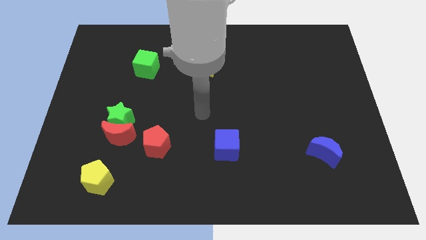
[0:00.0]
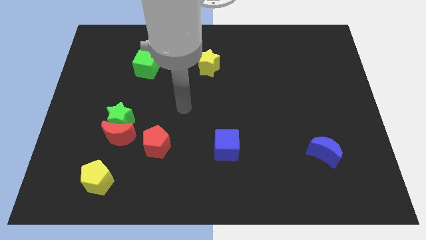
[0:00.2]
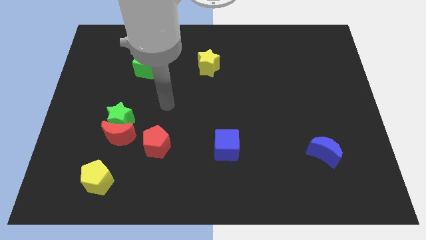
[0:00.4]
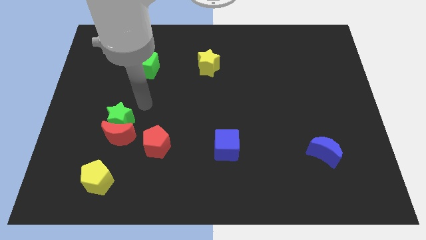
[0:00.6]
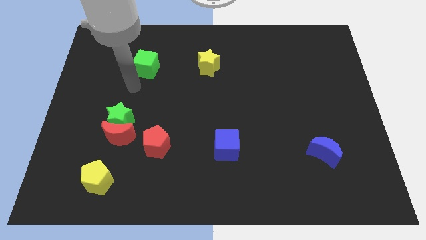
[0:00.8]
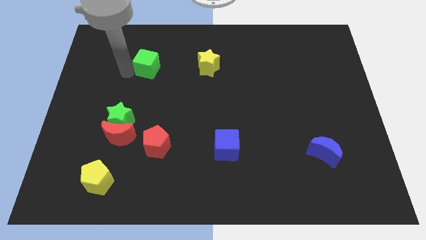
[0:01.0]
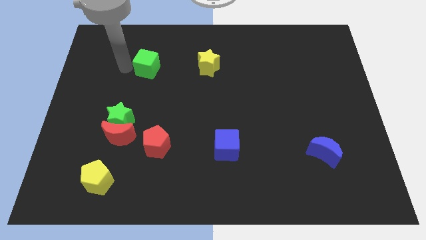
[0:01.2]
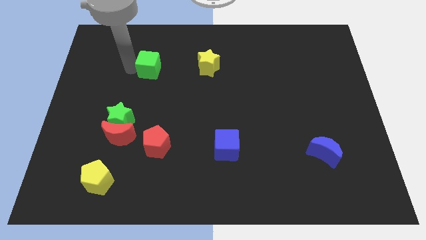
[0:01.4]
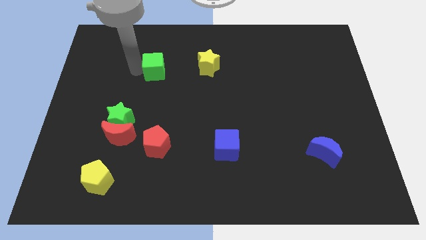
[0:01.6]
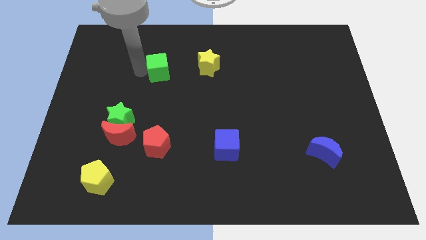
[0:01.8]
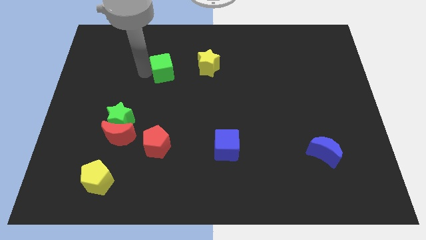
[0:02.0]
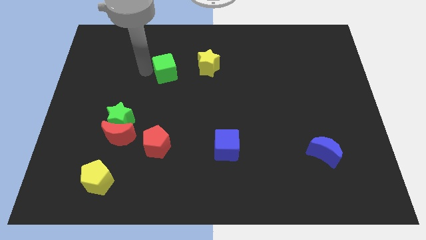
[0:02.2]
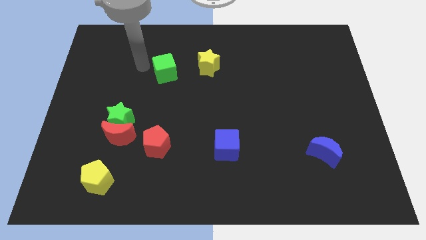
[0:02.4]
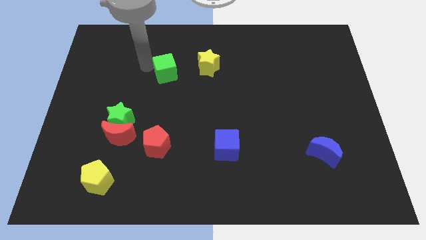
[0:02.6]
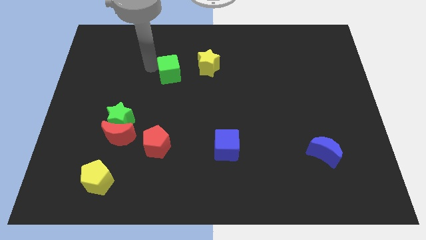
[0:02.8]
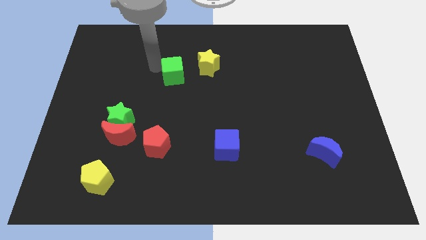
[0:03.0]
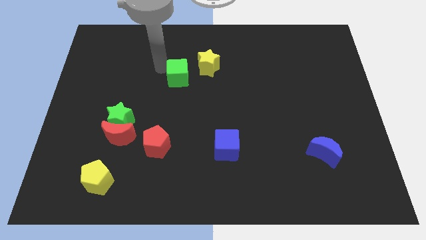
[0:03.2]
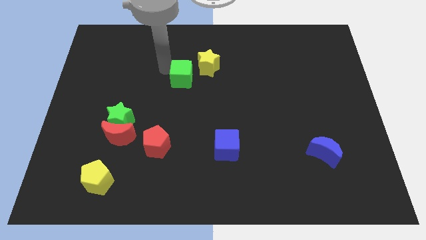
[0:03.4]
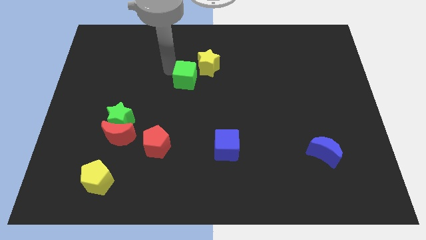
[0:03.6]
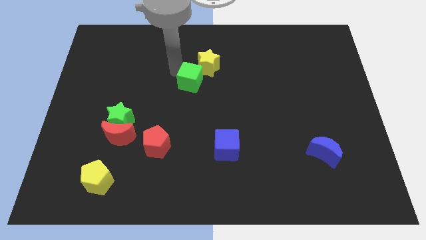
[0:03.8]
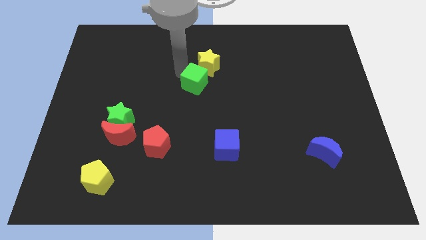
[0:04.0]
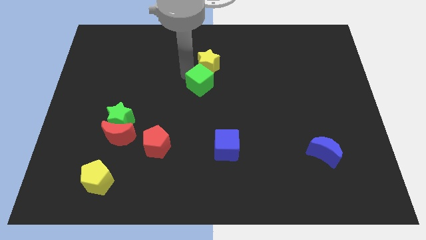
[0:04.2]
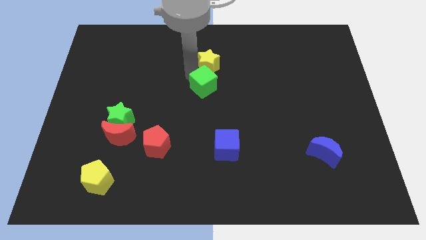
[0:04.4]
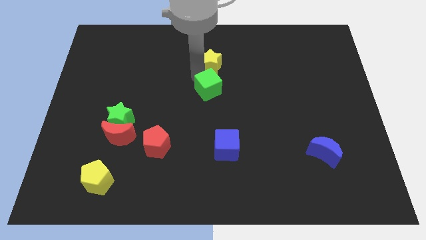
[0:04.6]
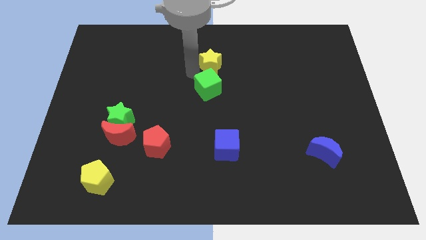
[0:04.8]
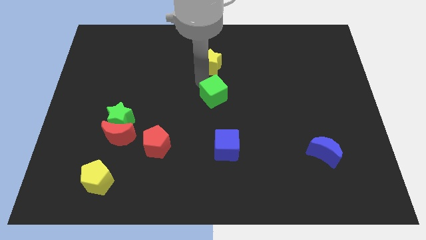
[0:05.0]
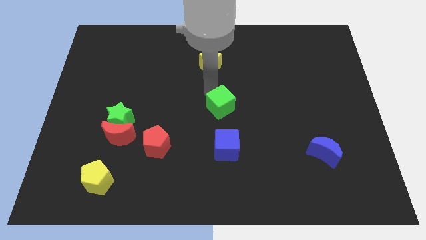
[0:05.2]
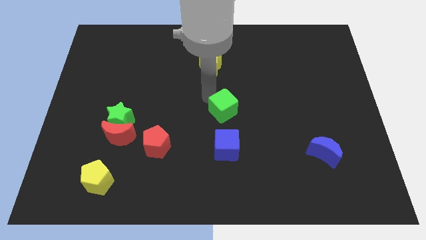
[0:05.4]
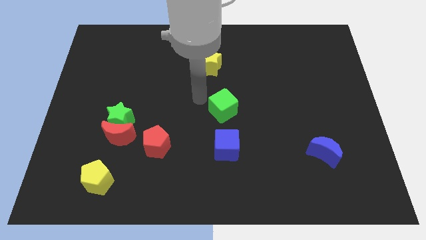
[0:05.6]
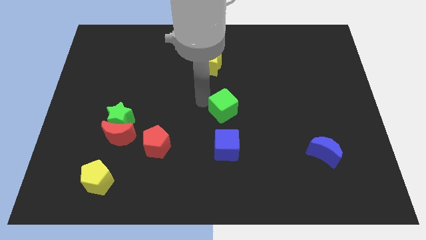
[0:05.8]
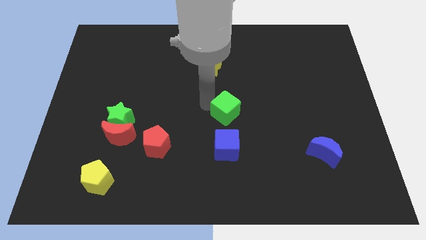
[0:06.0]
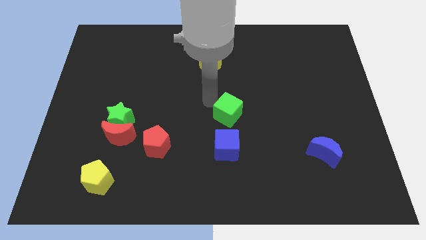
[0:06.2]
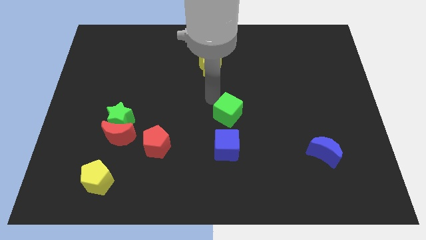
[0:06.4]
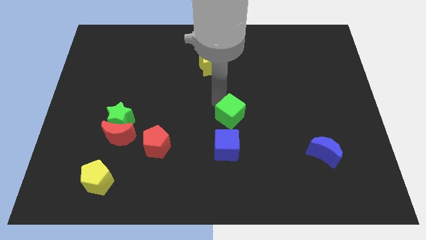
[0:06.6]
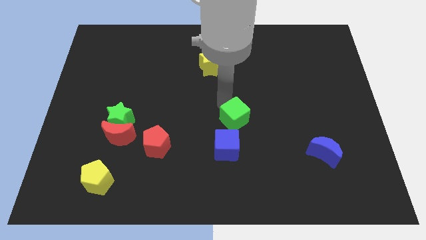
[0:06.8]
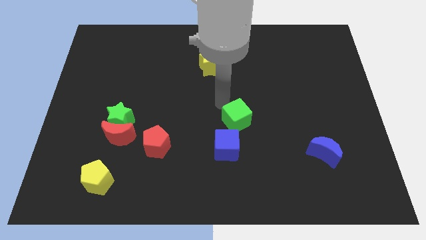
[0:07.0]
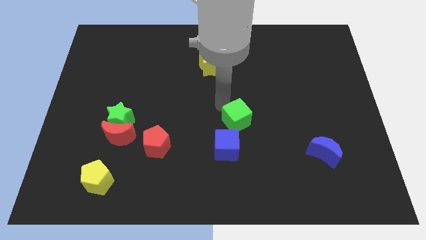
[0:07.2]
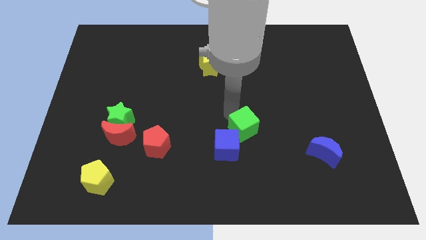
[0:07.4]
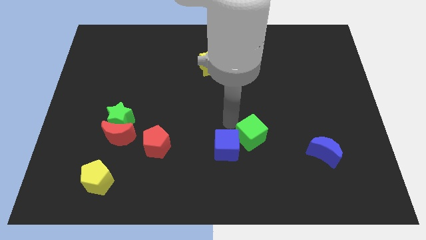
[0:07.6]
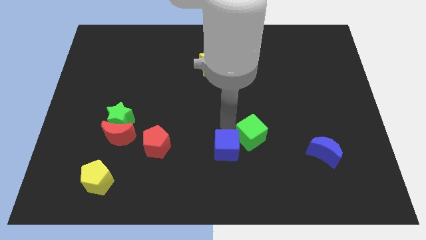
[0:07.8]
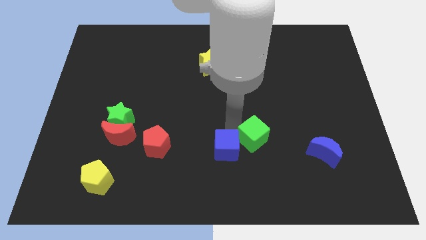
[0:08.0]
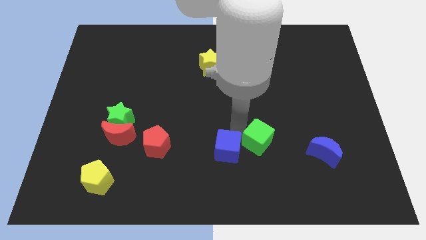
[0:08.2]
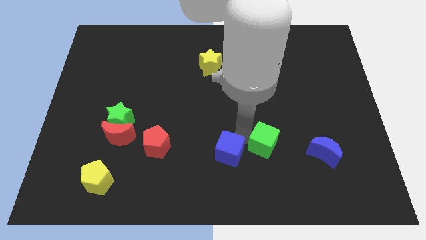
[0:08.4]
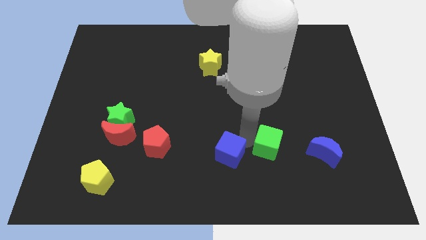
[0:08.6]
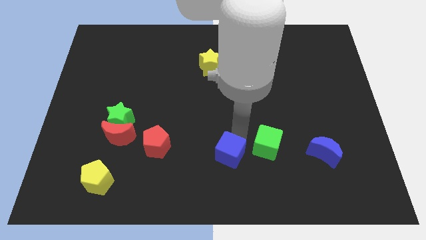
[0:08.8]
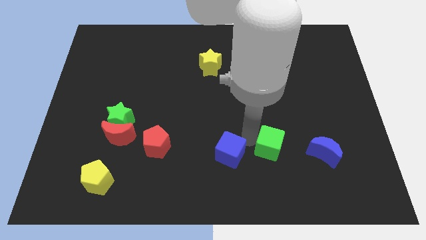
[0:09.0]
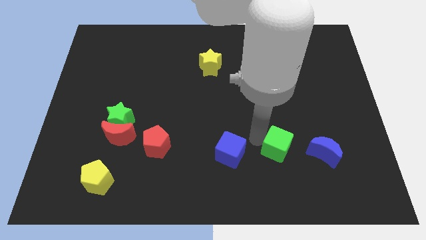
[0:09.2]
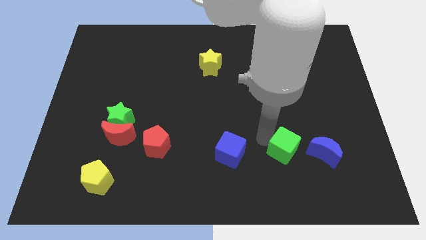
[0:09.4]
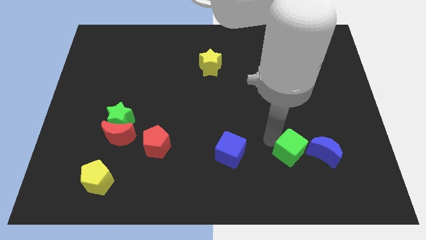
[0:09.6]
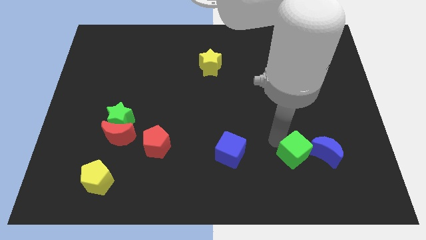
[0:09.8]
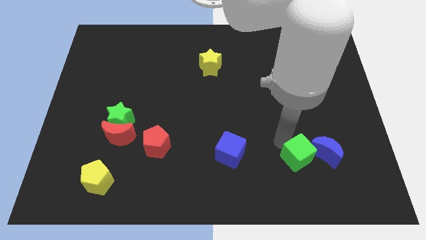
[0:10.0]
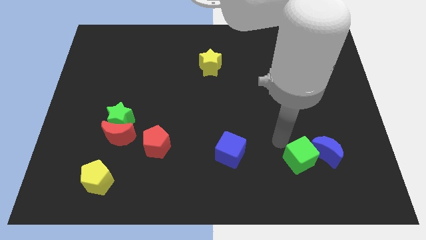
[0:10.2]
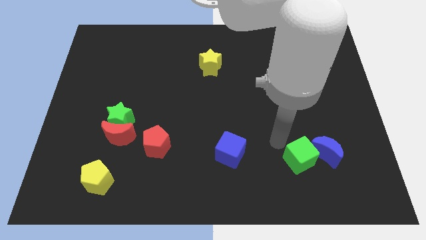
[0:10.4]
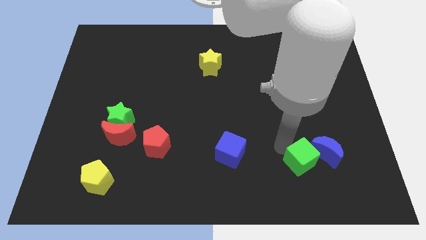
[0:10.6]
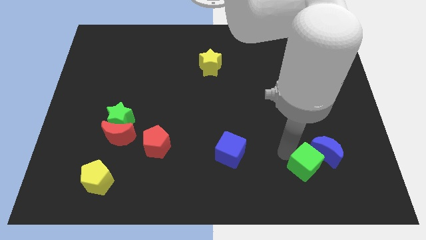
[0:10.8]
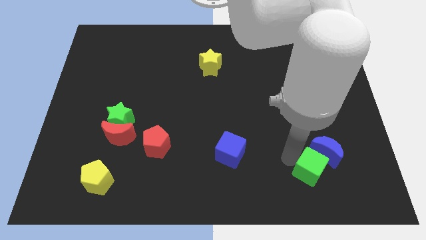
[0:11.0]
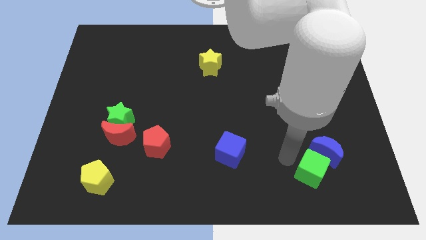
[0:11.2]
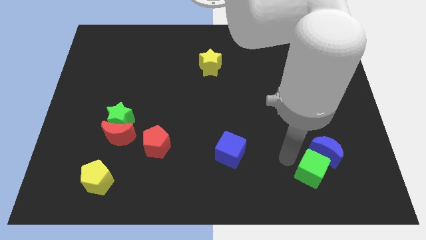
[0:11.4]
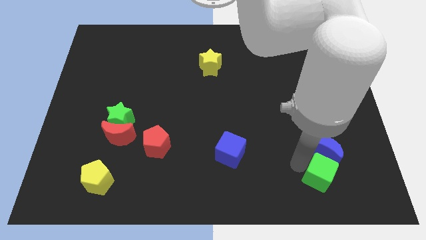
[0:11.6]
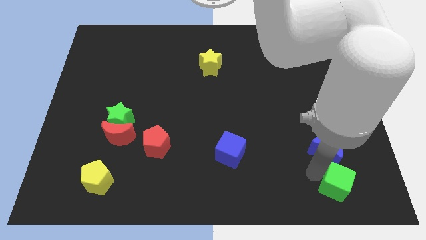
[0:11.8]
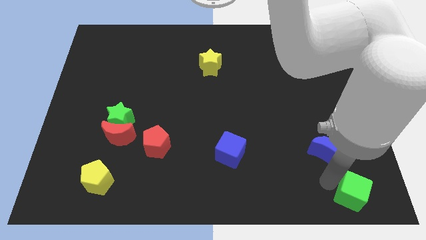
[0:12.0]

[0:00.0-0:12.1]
push the green cube to the bottom right corner
